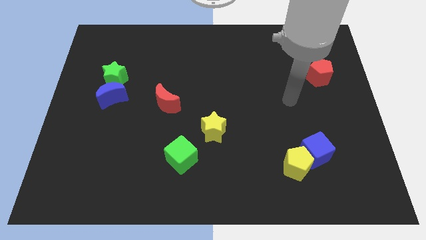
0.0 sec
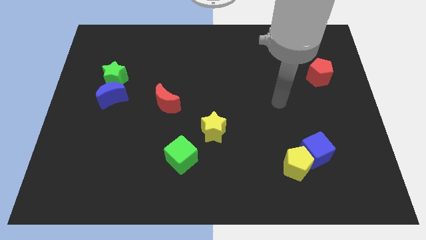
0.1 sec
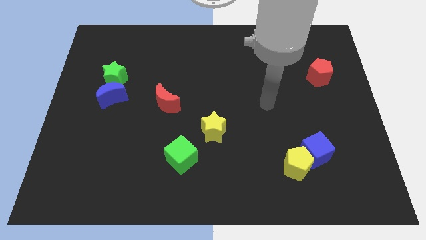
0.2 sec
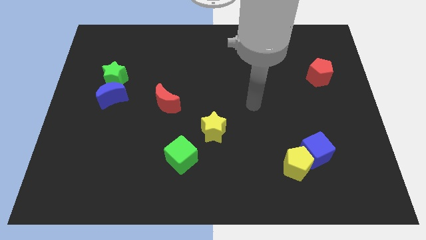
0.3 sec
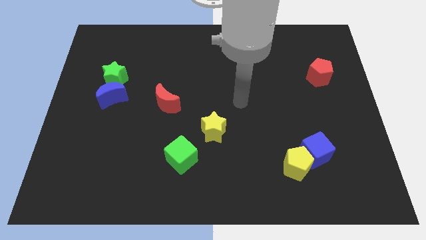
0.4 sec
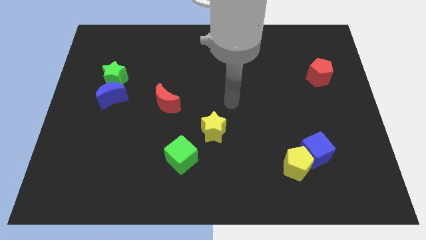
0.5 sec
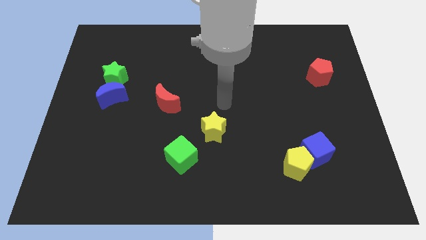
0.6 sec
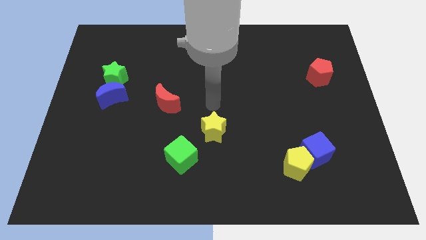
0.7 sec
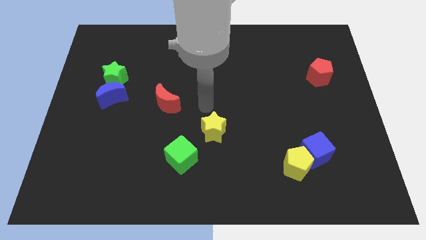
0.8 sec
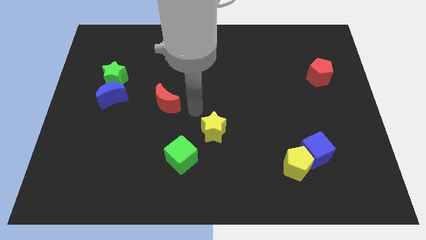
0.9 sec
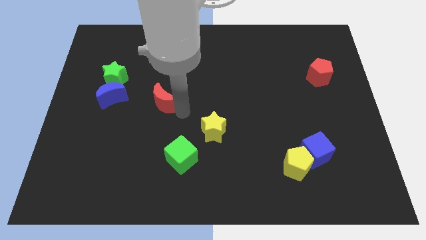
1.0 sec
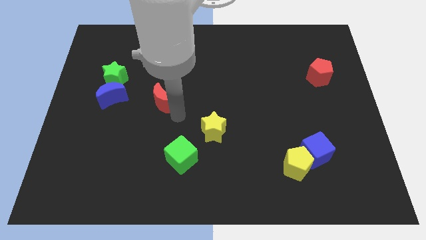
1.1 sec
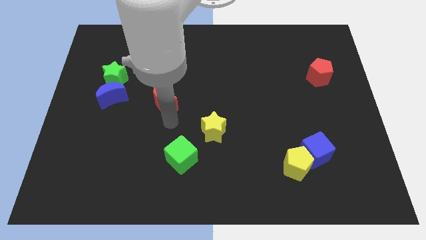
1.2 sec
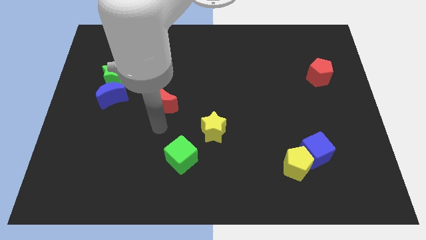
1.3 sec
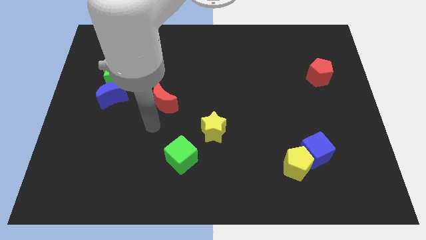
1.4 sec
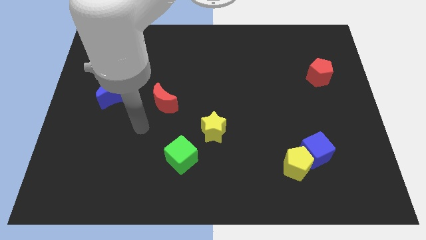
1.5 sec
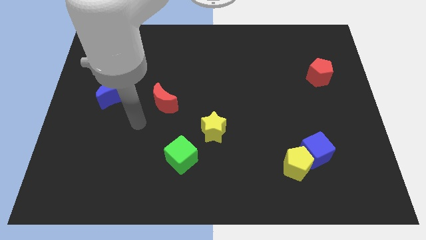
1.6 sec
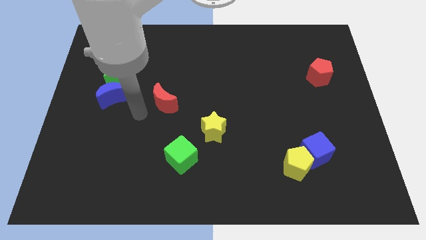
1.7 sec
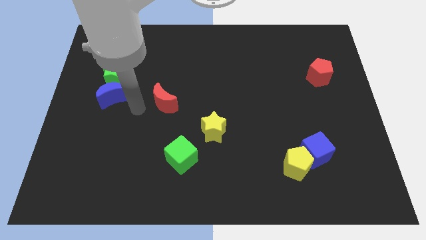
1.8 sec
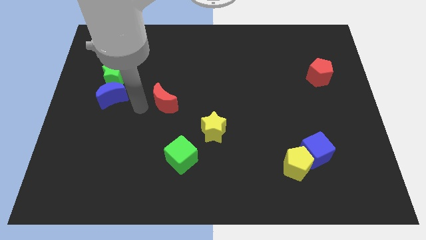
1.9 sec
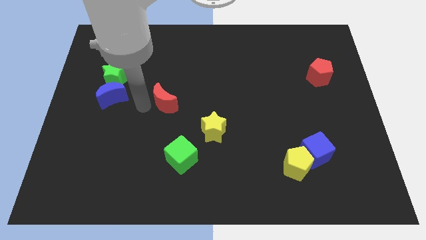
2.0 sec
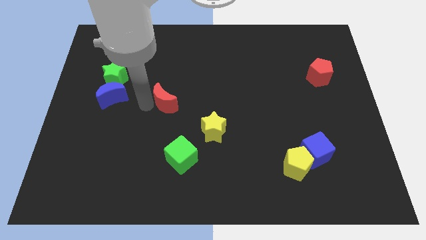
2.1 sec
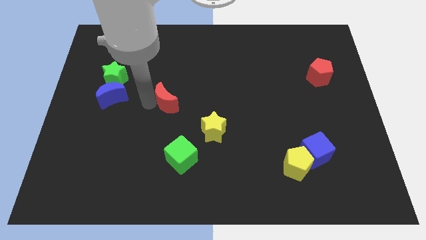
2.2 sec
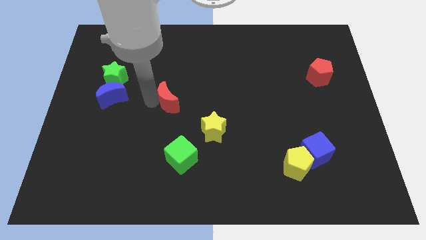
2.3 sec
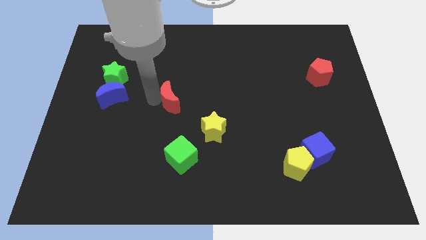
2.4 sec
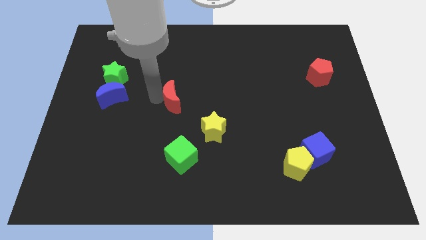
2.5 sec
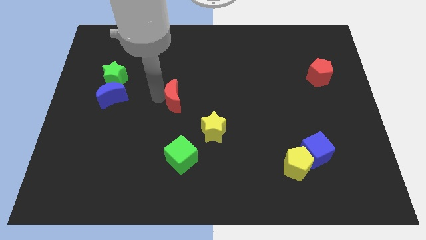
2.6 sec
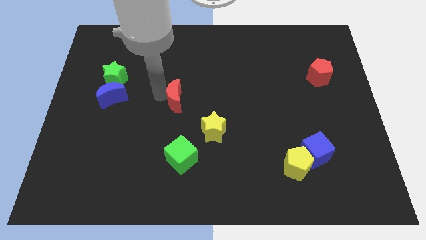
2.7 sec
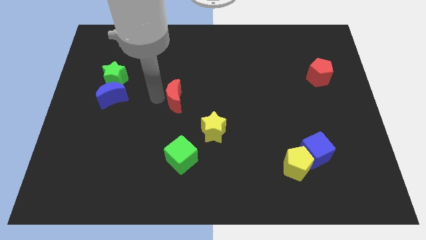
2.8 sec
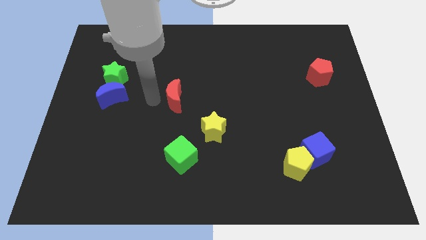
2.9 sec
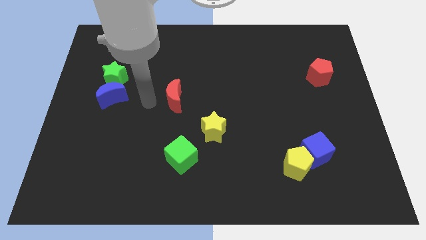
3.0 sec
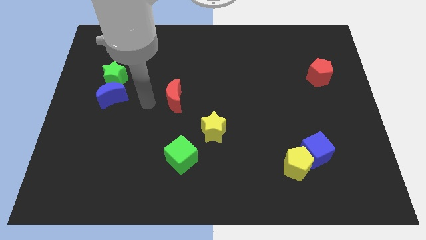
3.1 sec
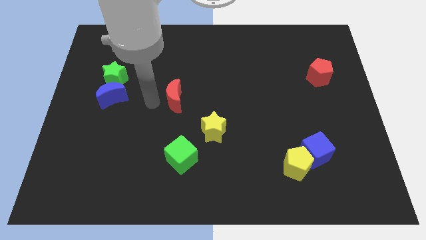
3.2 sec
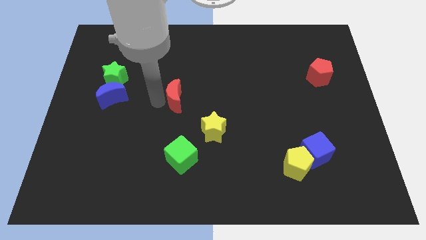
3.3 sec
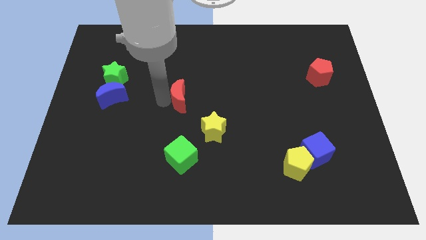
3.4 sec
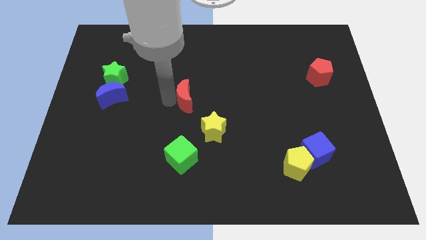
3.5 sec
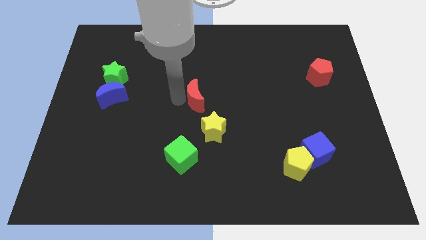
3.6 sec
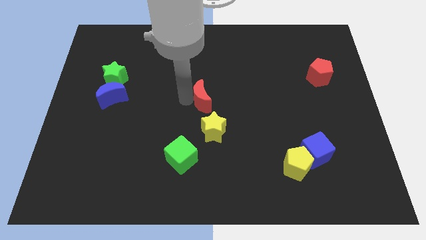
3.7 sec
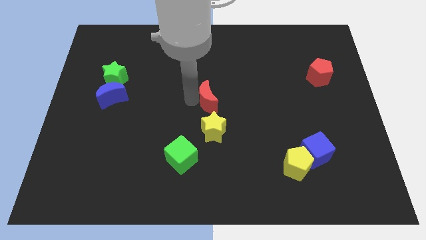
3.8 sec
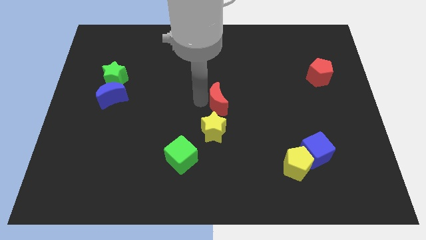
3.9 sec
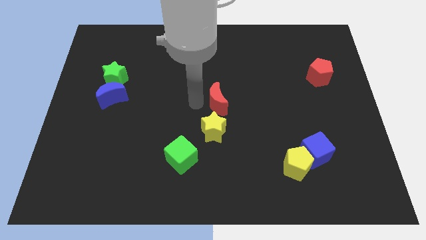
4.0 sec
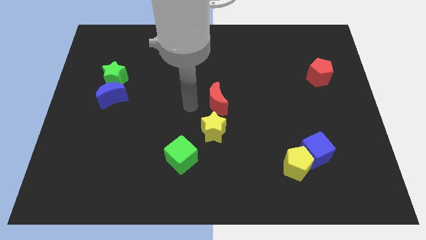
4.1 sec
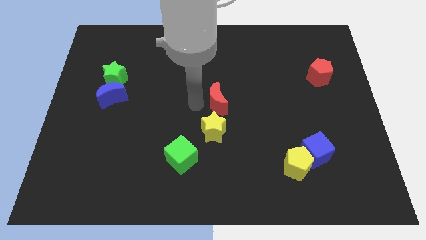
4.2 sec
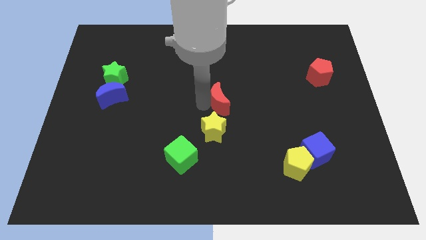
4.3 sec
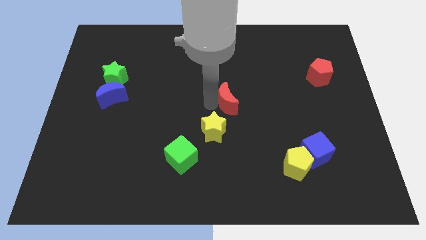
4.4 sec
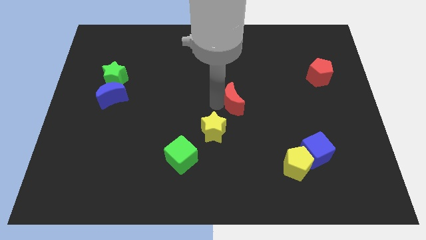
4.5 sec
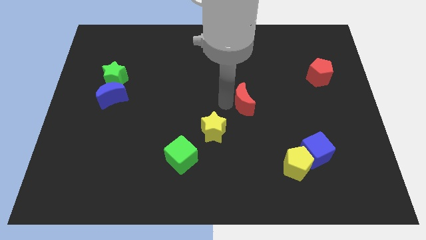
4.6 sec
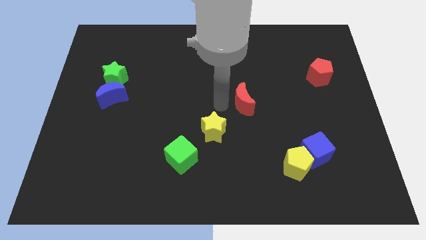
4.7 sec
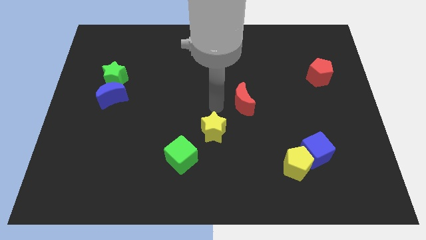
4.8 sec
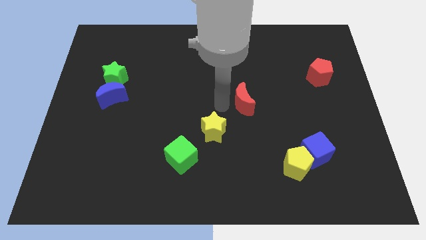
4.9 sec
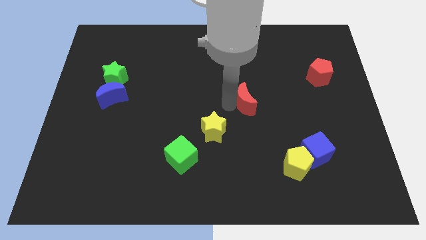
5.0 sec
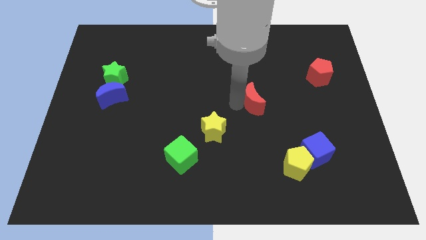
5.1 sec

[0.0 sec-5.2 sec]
push the red moon to the right

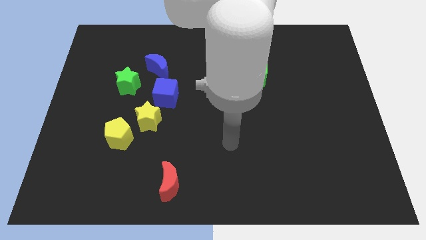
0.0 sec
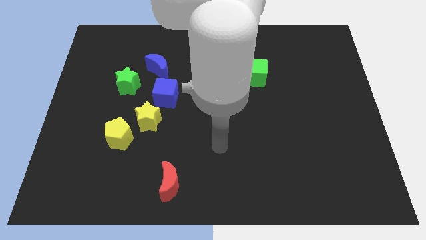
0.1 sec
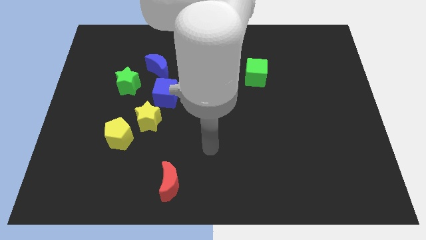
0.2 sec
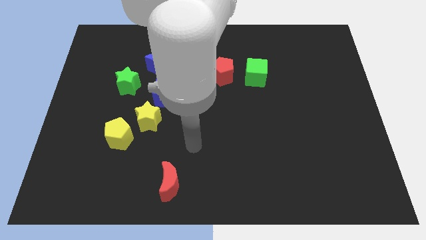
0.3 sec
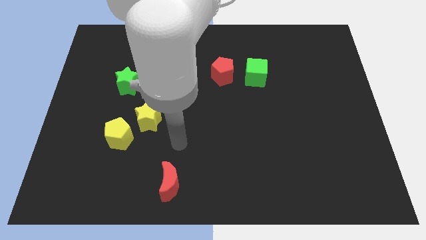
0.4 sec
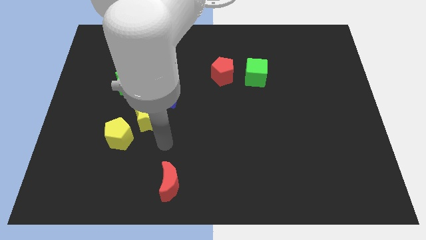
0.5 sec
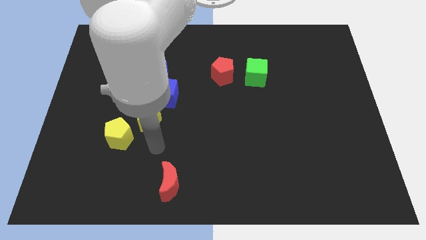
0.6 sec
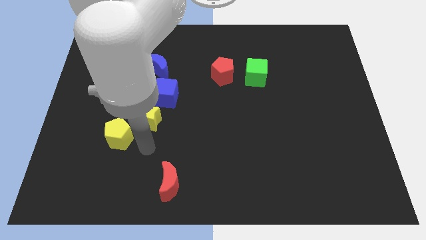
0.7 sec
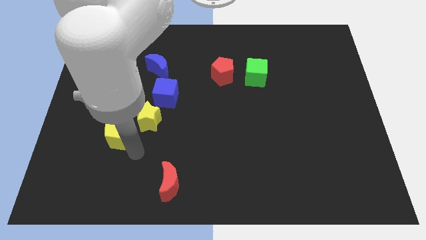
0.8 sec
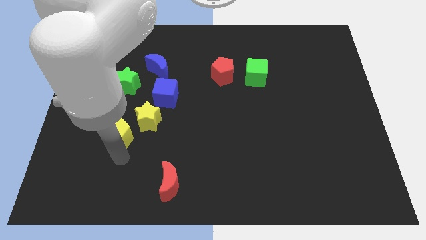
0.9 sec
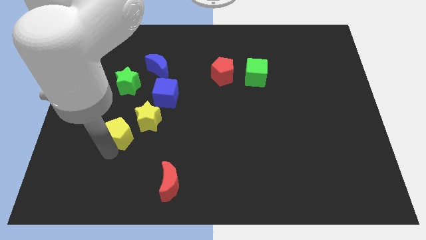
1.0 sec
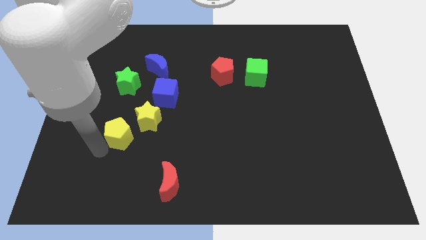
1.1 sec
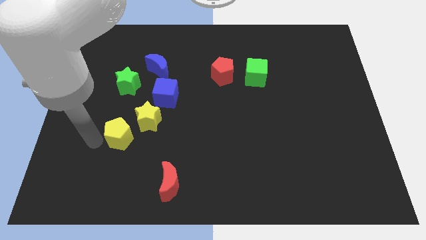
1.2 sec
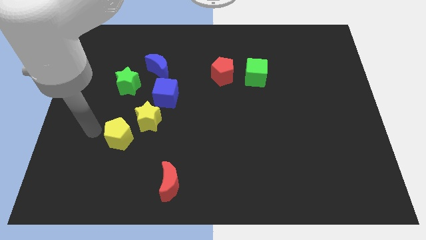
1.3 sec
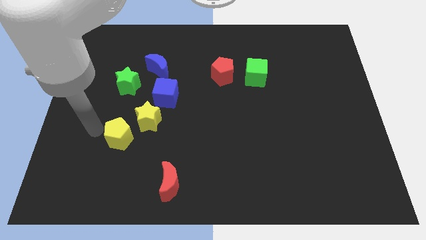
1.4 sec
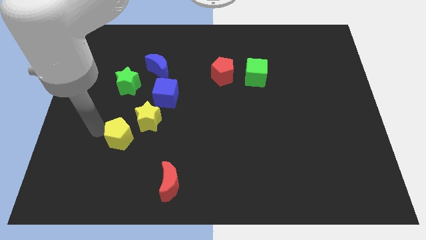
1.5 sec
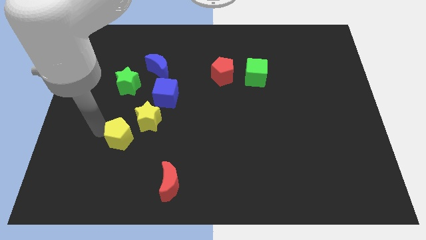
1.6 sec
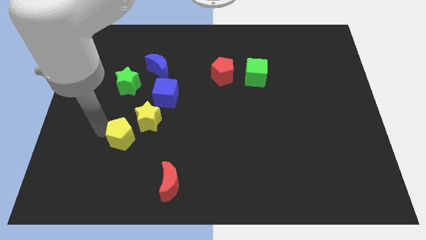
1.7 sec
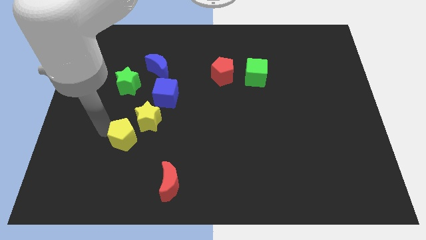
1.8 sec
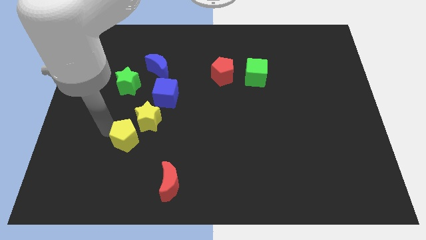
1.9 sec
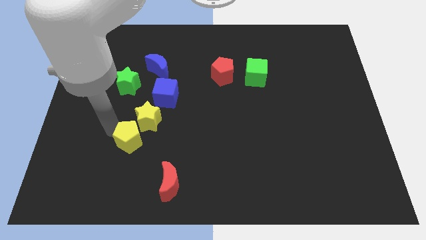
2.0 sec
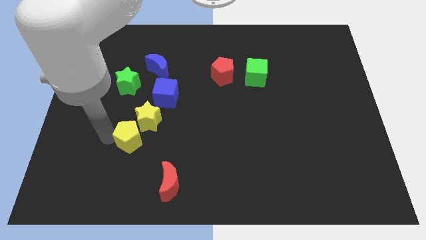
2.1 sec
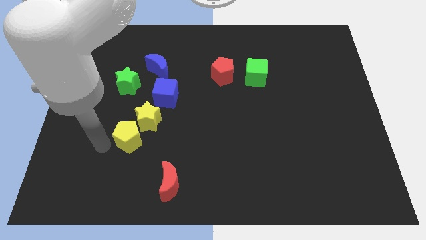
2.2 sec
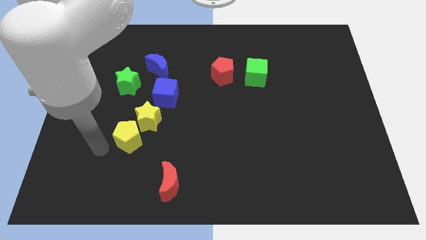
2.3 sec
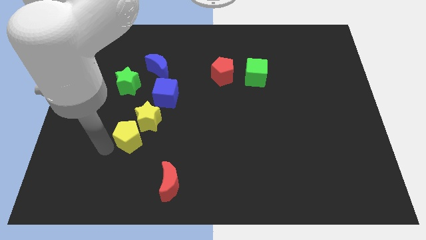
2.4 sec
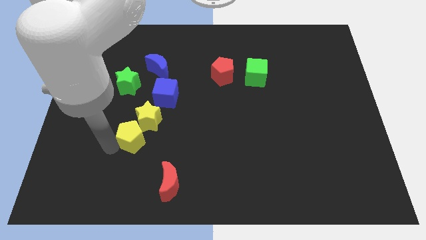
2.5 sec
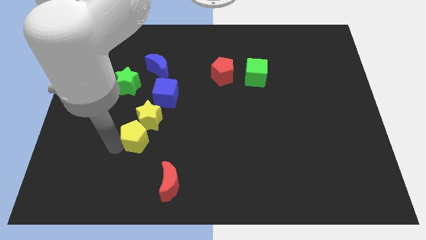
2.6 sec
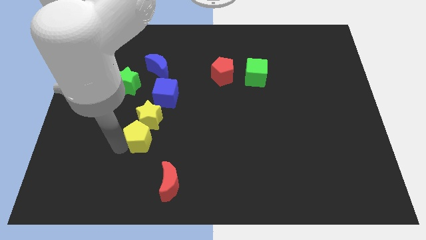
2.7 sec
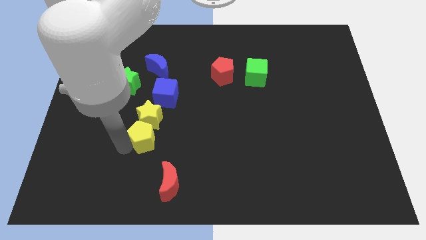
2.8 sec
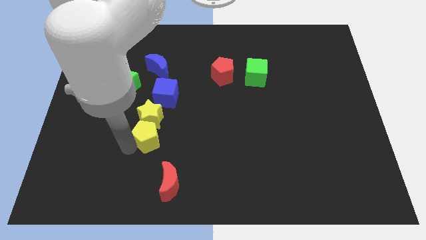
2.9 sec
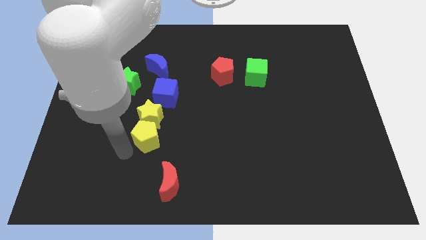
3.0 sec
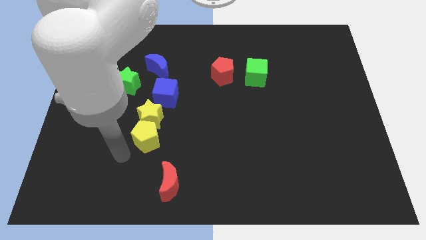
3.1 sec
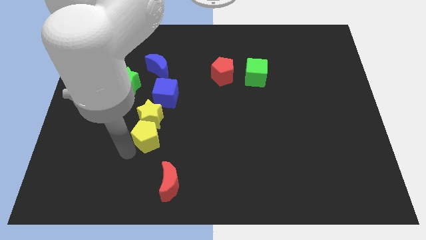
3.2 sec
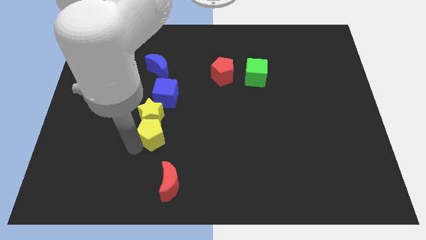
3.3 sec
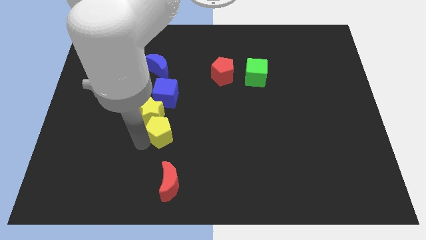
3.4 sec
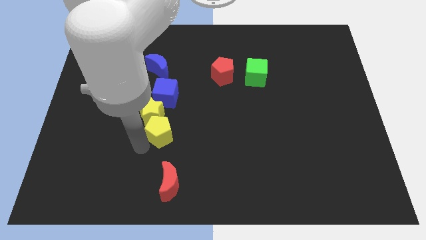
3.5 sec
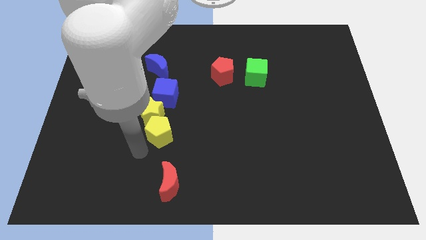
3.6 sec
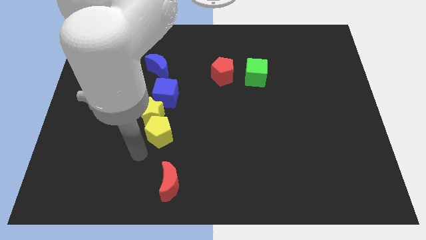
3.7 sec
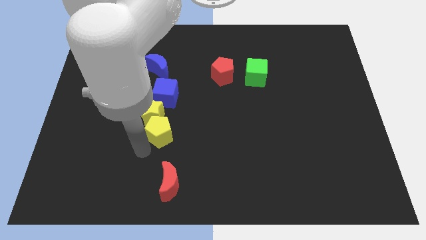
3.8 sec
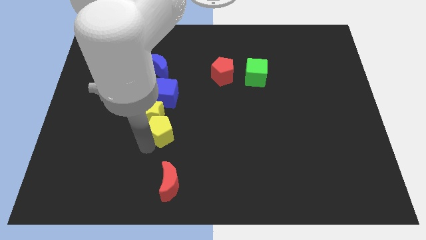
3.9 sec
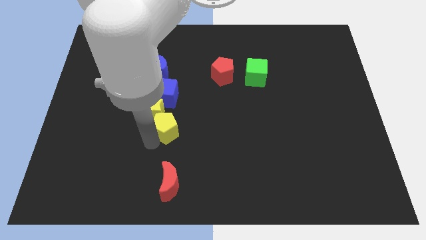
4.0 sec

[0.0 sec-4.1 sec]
slide the yellow pentagon upwards and then right a little
